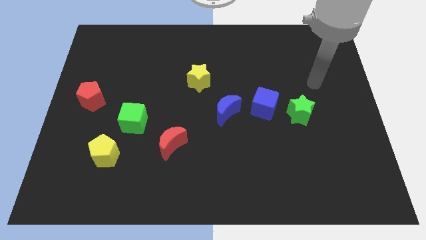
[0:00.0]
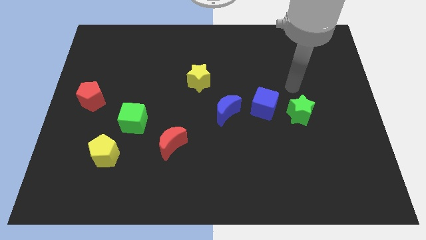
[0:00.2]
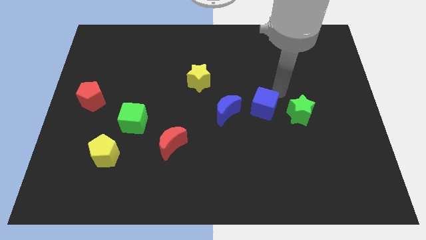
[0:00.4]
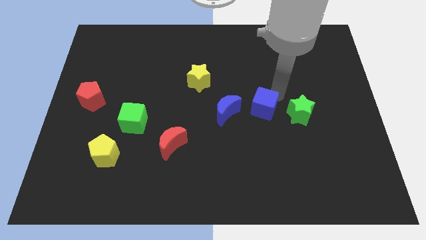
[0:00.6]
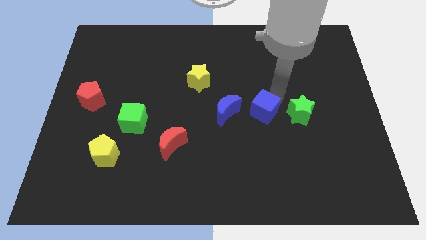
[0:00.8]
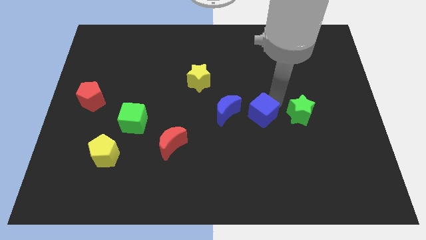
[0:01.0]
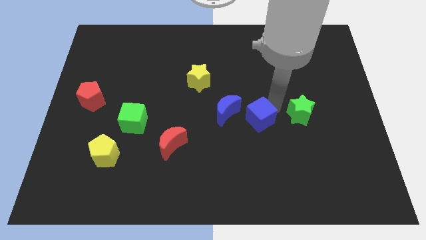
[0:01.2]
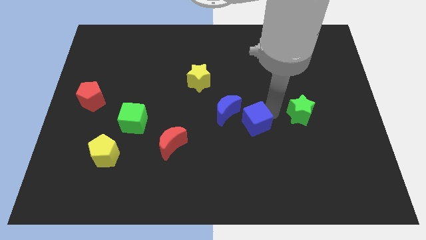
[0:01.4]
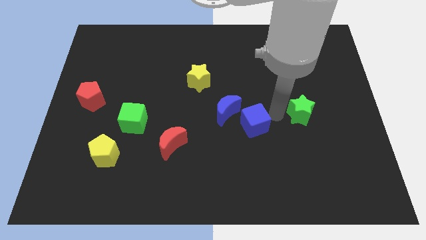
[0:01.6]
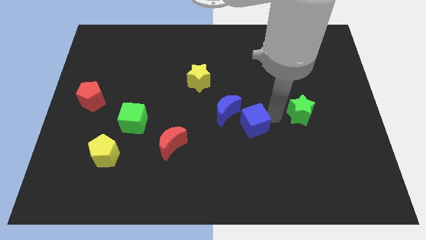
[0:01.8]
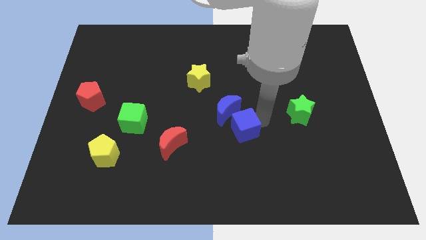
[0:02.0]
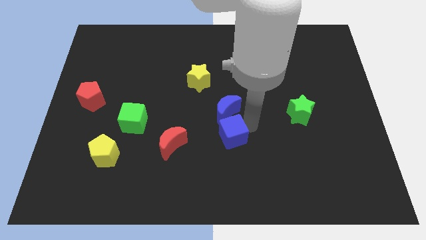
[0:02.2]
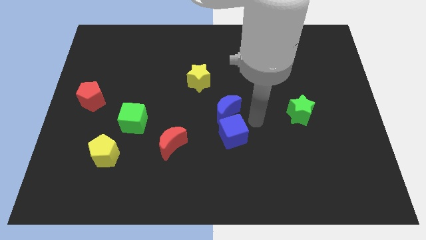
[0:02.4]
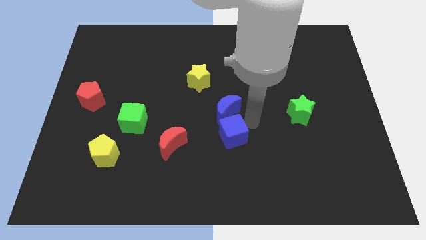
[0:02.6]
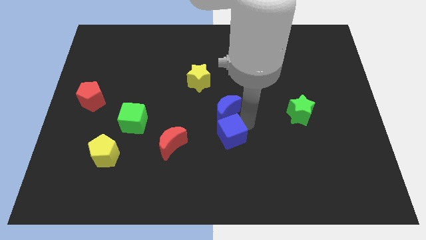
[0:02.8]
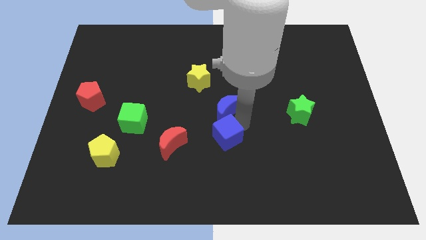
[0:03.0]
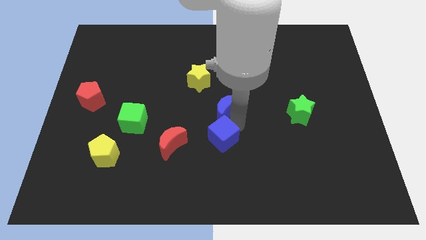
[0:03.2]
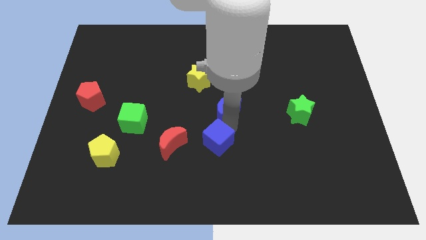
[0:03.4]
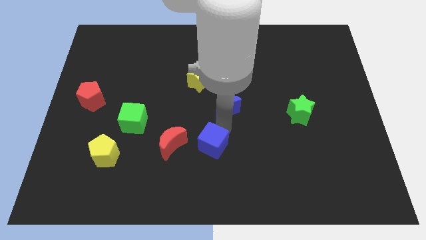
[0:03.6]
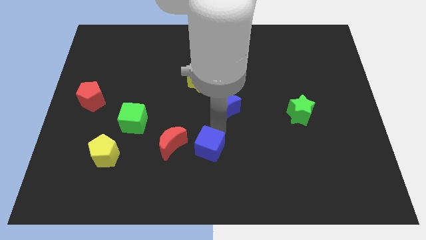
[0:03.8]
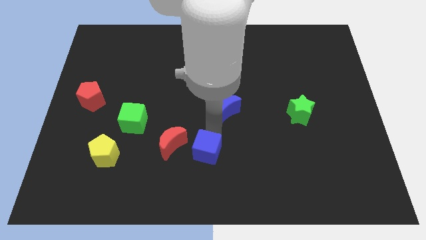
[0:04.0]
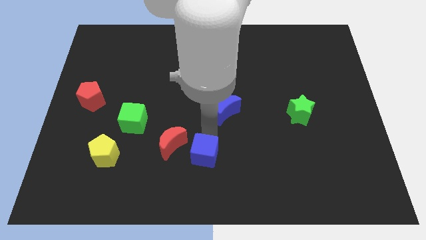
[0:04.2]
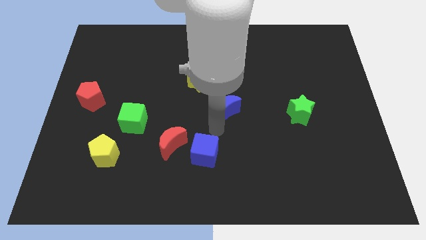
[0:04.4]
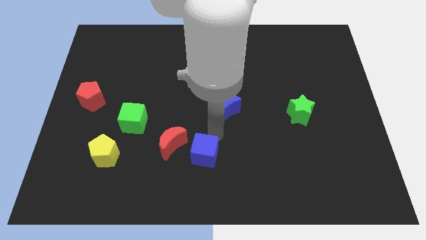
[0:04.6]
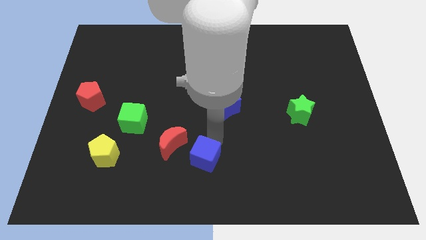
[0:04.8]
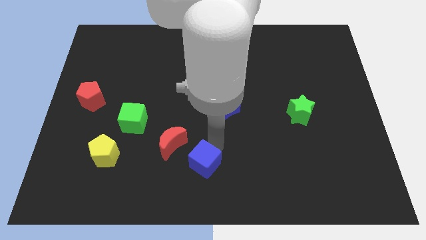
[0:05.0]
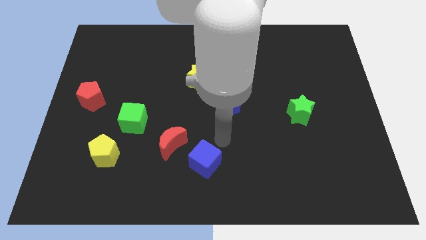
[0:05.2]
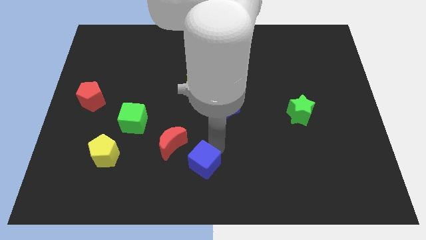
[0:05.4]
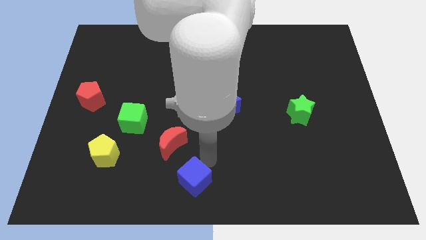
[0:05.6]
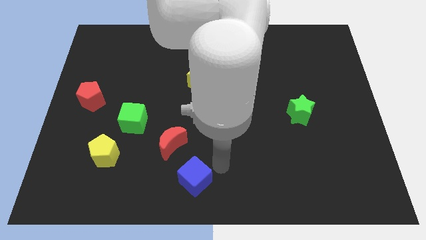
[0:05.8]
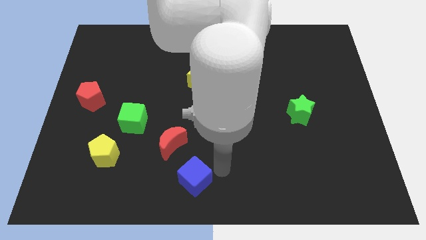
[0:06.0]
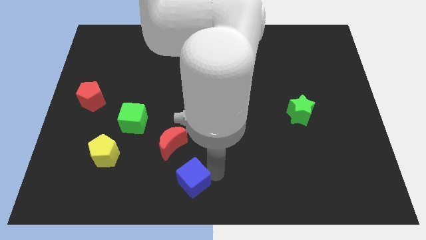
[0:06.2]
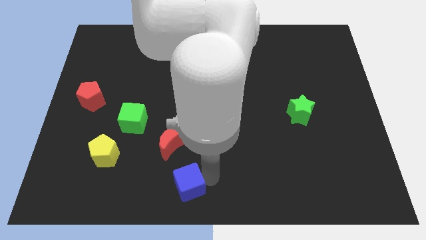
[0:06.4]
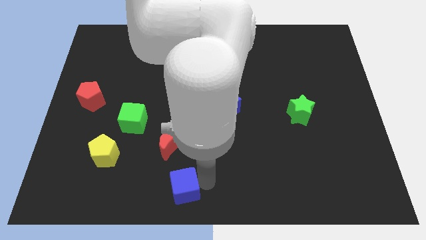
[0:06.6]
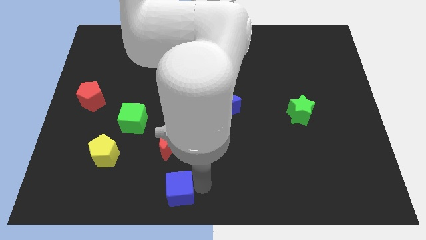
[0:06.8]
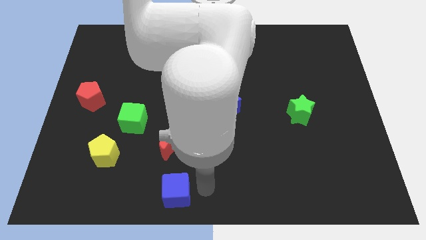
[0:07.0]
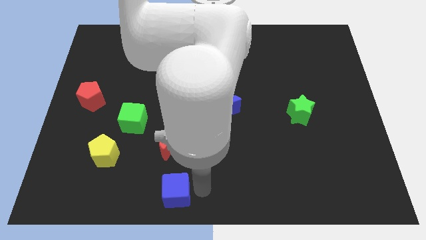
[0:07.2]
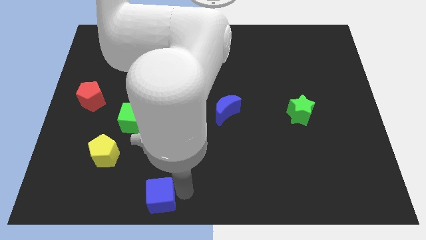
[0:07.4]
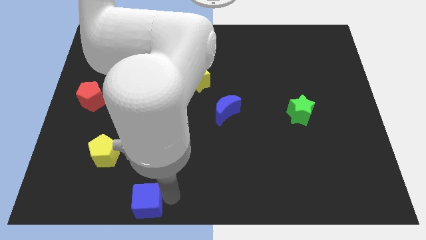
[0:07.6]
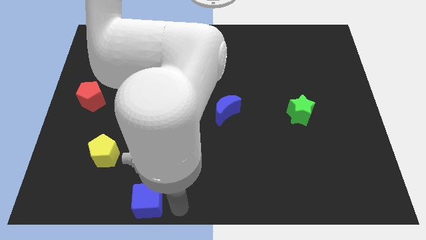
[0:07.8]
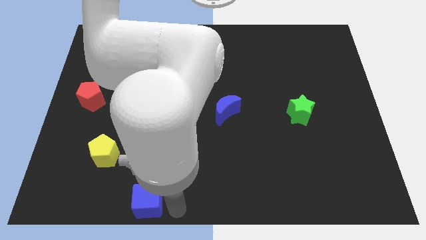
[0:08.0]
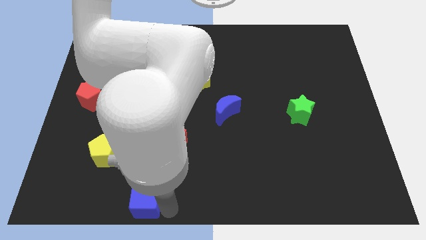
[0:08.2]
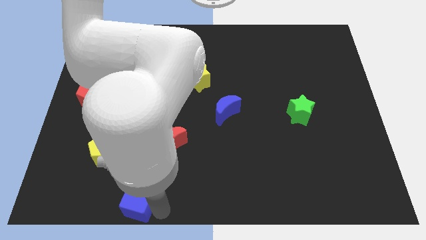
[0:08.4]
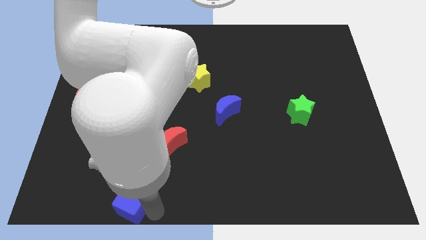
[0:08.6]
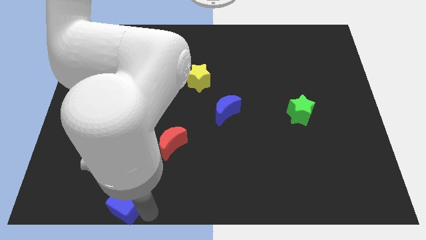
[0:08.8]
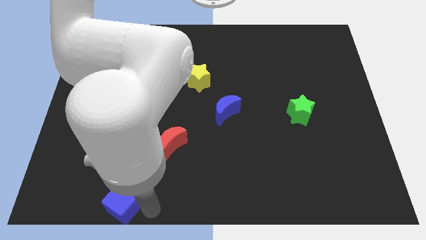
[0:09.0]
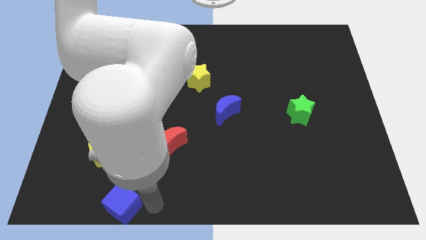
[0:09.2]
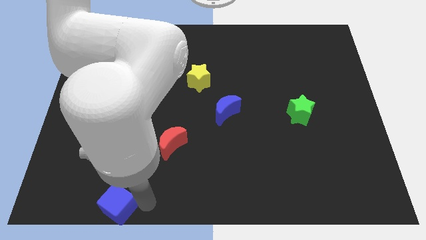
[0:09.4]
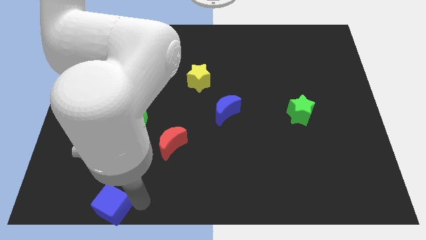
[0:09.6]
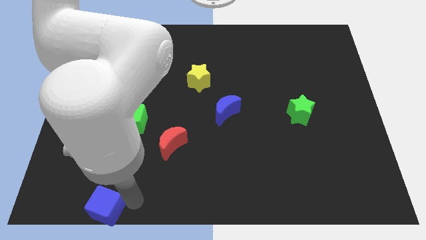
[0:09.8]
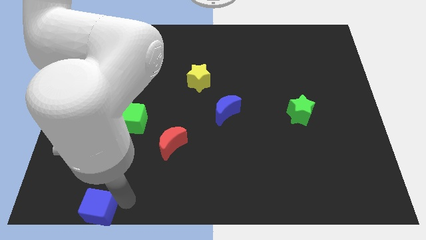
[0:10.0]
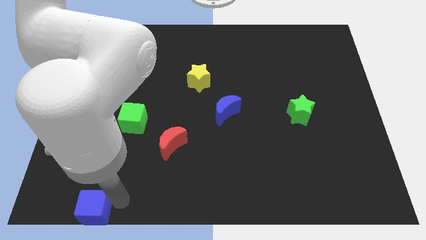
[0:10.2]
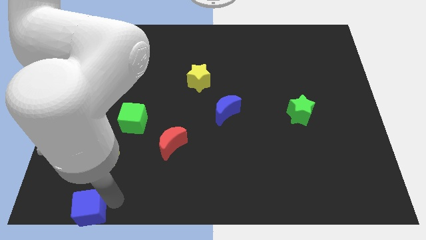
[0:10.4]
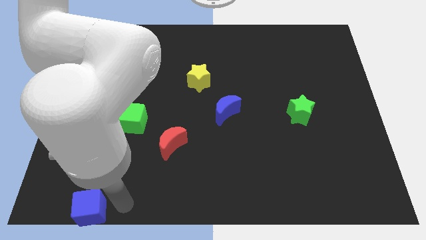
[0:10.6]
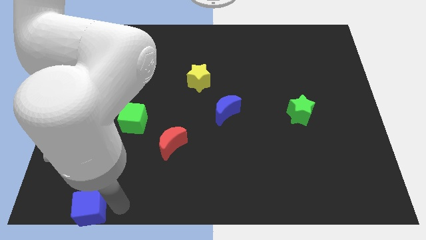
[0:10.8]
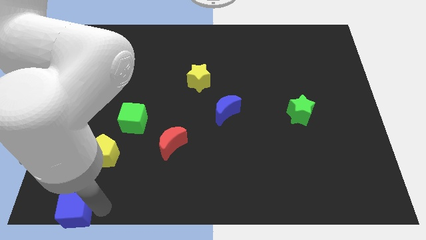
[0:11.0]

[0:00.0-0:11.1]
move the blue cube to the bottom left of the board

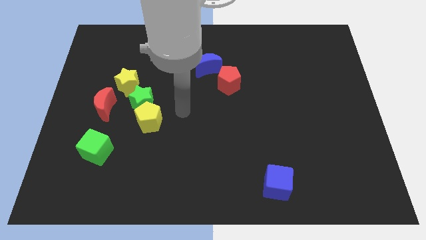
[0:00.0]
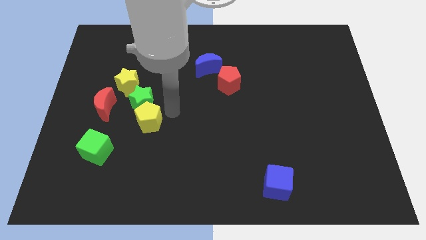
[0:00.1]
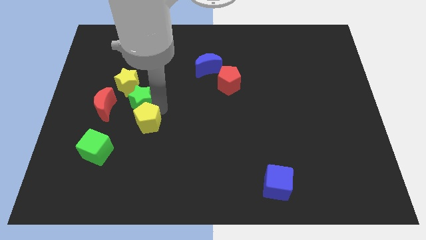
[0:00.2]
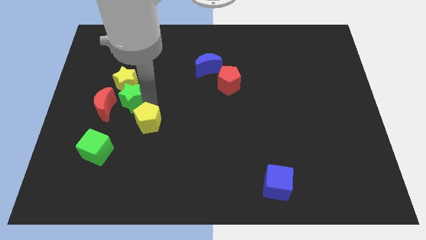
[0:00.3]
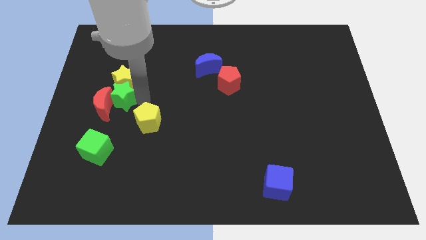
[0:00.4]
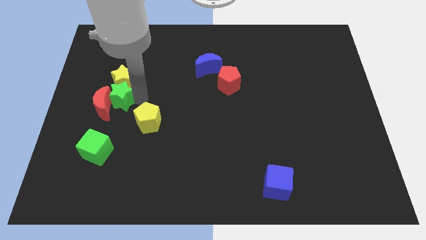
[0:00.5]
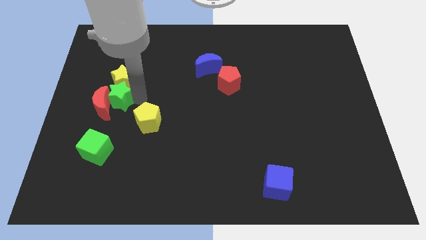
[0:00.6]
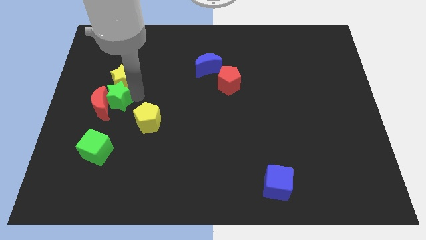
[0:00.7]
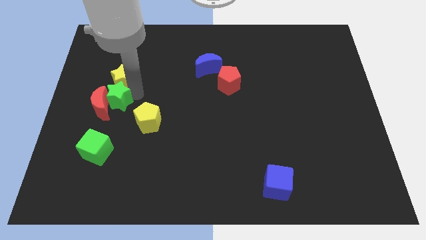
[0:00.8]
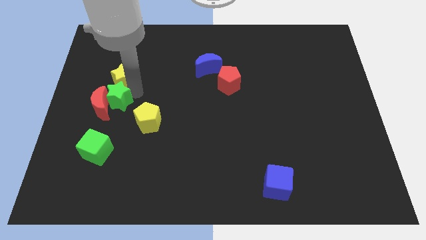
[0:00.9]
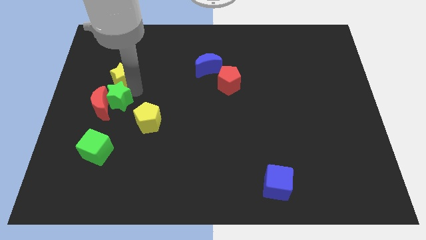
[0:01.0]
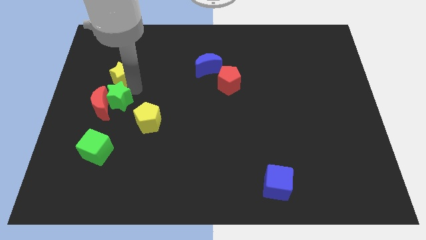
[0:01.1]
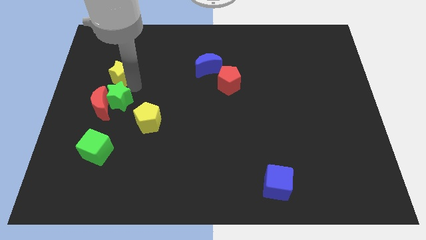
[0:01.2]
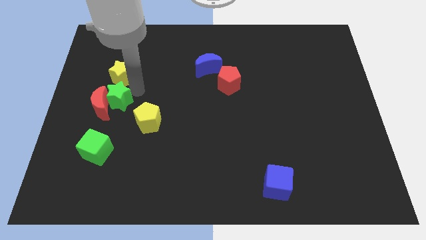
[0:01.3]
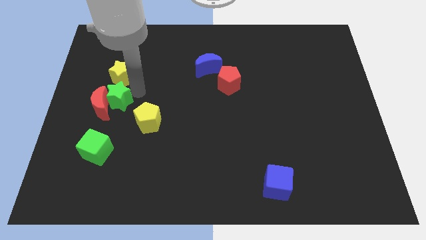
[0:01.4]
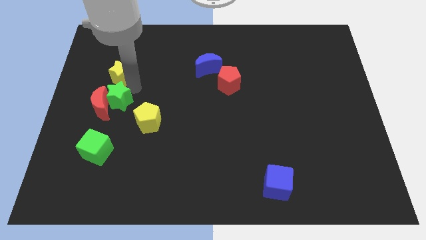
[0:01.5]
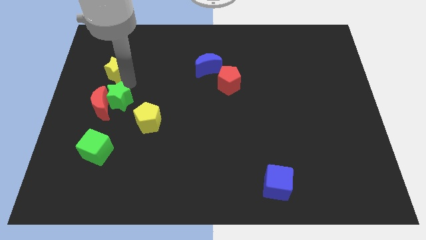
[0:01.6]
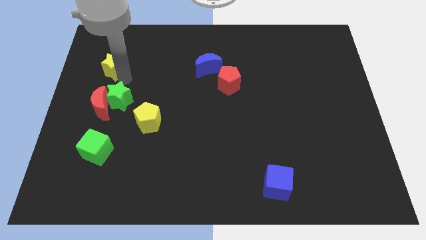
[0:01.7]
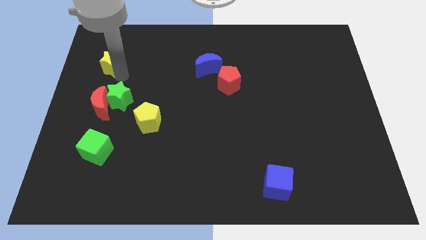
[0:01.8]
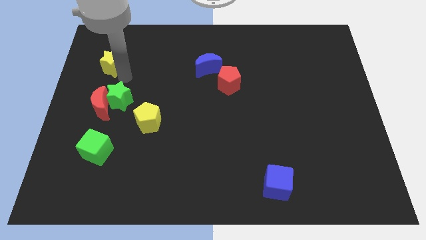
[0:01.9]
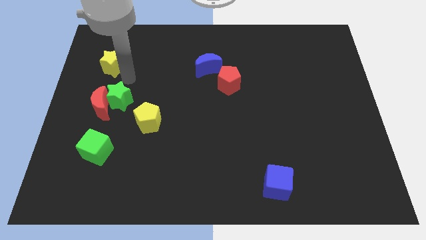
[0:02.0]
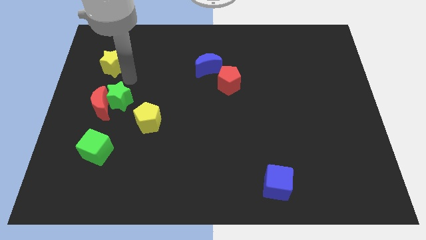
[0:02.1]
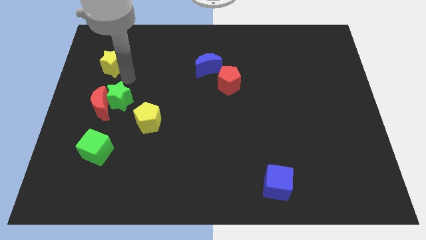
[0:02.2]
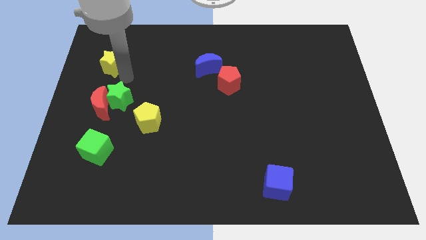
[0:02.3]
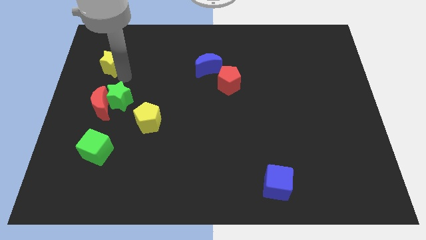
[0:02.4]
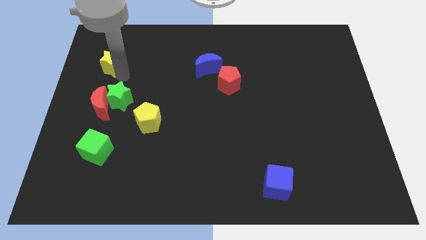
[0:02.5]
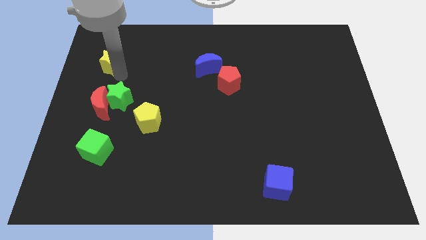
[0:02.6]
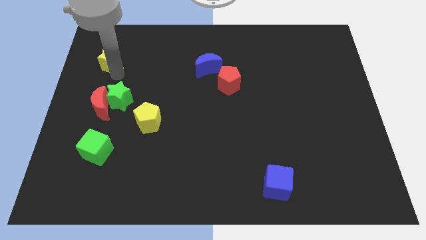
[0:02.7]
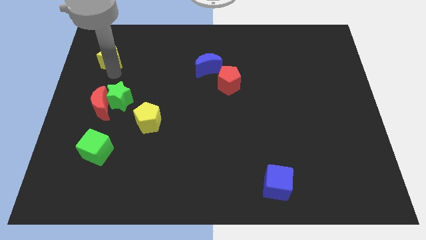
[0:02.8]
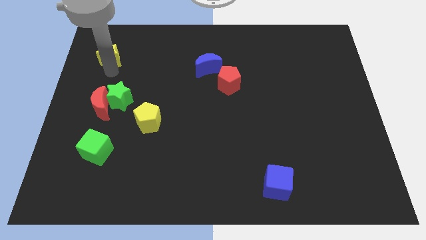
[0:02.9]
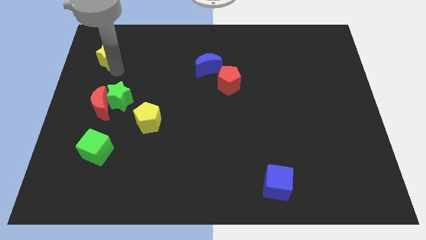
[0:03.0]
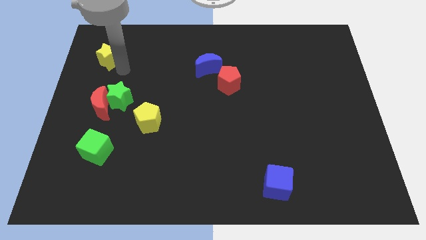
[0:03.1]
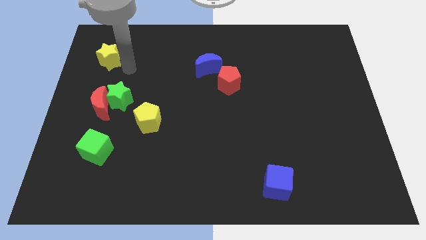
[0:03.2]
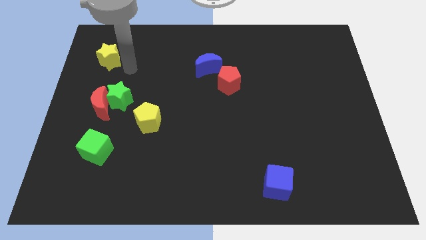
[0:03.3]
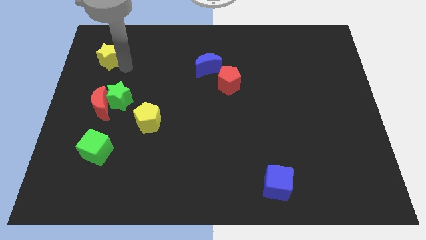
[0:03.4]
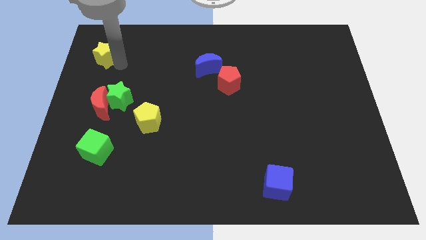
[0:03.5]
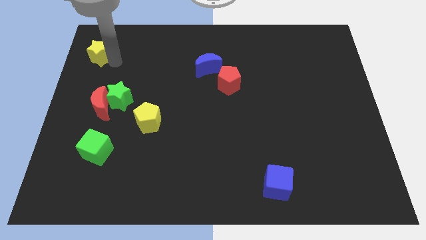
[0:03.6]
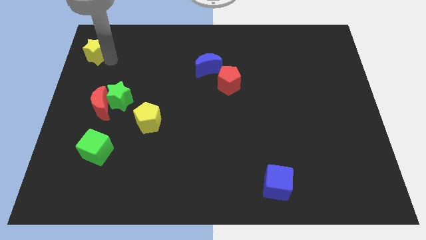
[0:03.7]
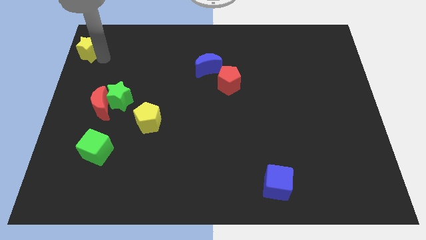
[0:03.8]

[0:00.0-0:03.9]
slide the yellow star to the upper left corner
